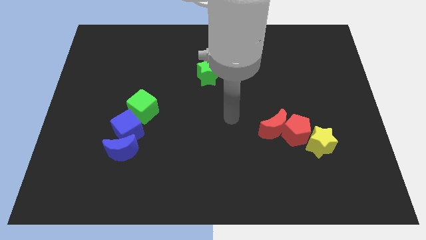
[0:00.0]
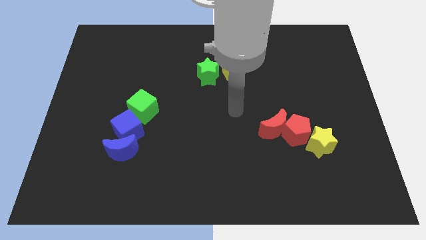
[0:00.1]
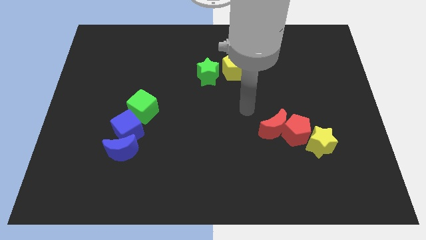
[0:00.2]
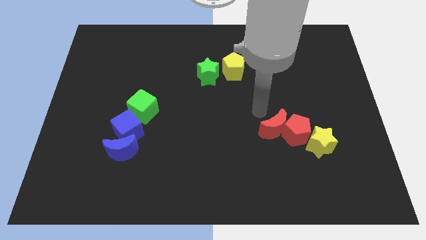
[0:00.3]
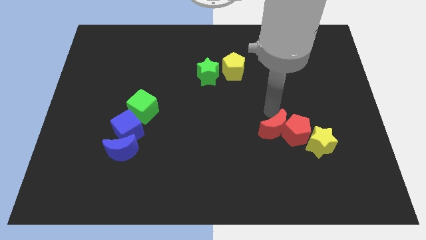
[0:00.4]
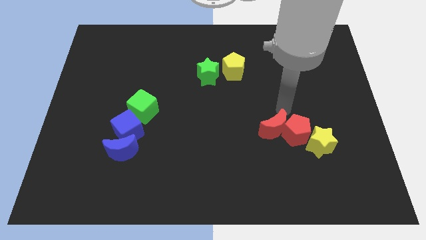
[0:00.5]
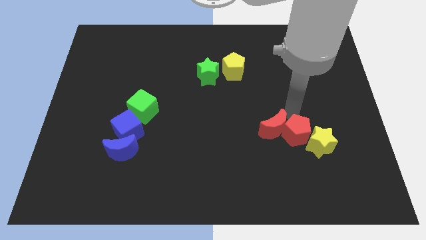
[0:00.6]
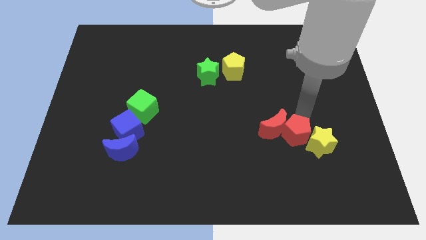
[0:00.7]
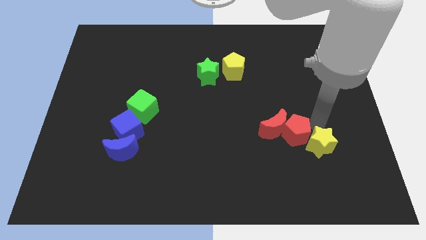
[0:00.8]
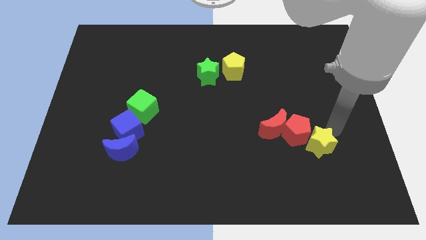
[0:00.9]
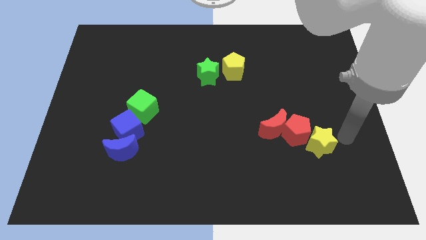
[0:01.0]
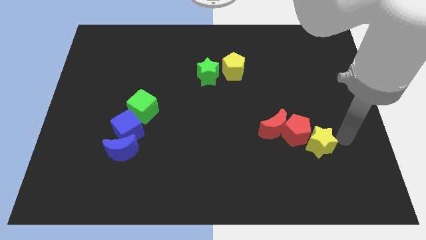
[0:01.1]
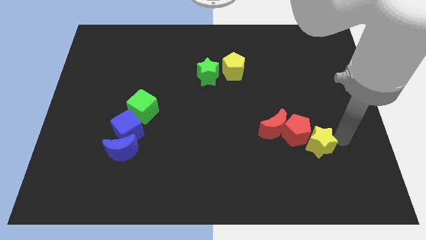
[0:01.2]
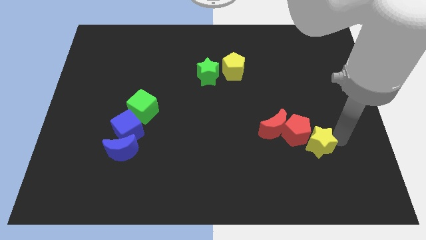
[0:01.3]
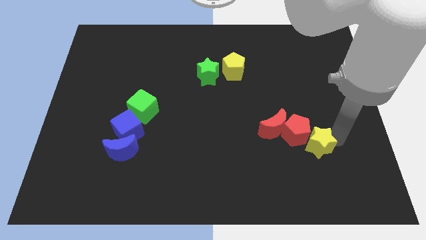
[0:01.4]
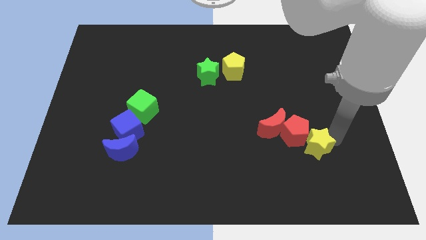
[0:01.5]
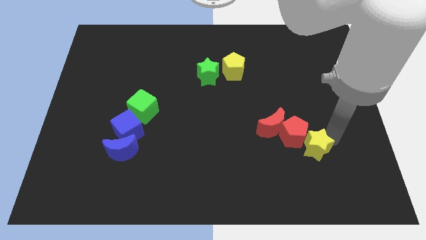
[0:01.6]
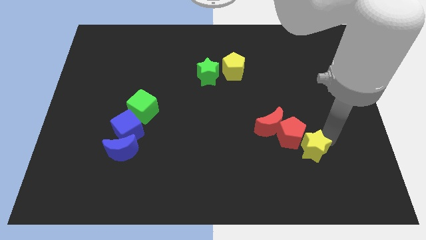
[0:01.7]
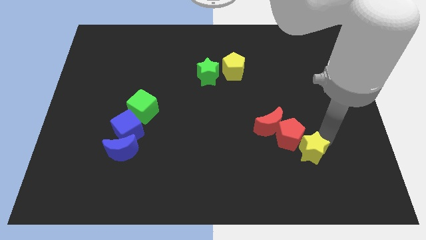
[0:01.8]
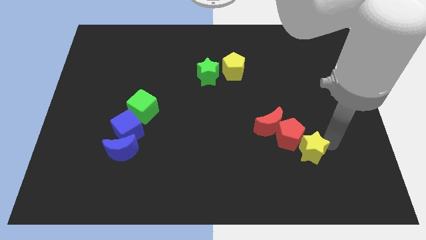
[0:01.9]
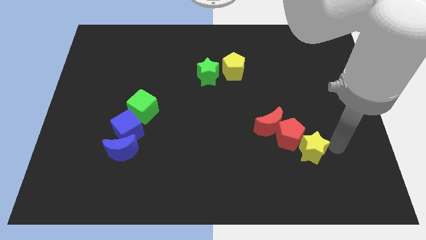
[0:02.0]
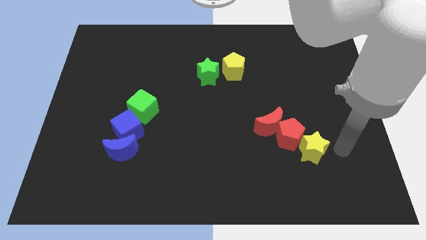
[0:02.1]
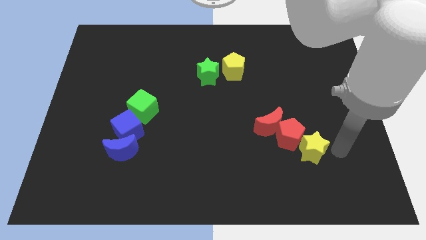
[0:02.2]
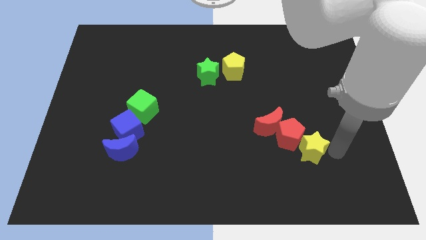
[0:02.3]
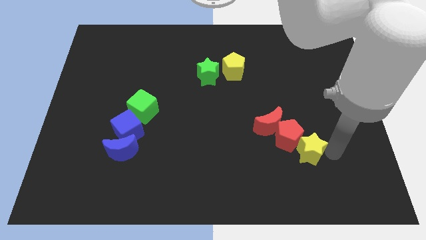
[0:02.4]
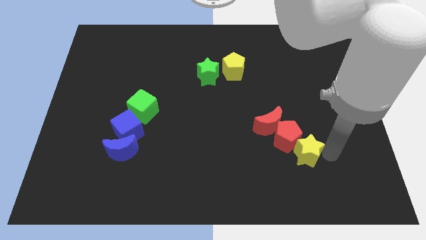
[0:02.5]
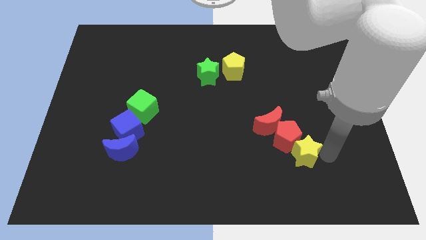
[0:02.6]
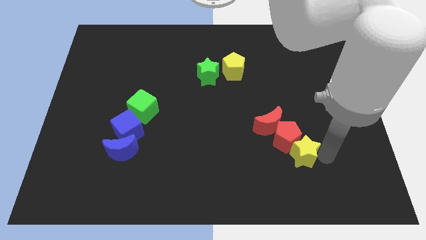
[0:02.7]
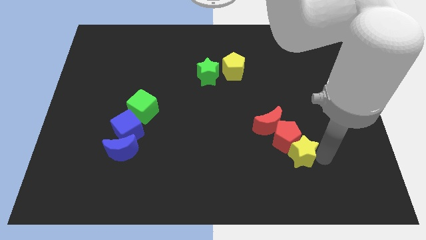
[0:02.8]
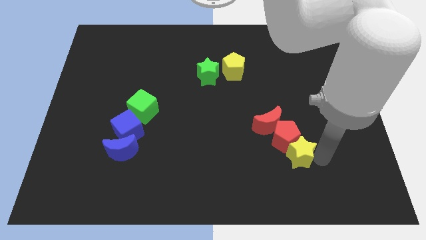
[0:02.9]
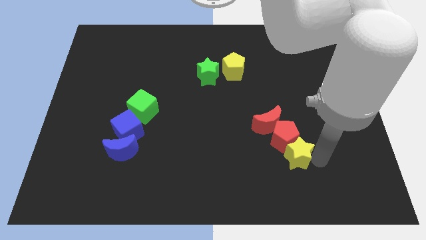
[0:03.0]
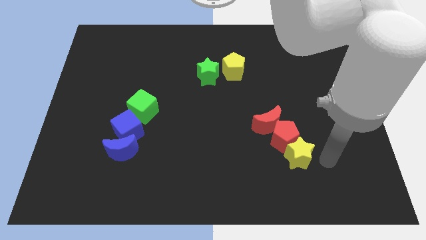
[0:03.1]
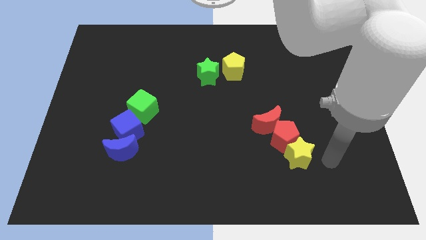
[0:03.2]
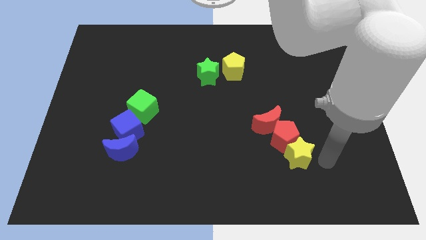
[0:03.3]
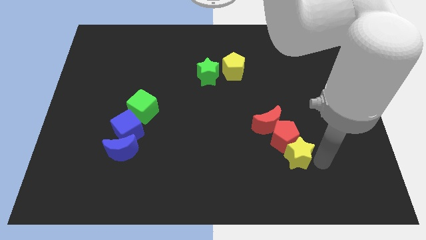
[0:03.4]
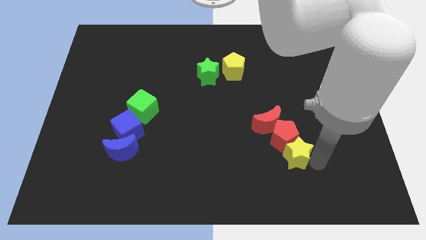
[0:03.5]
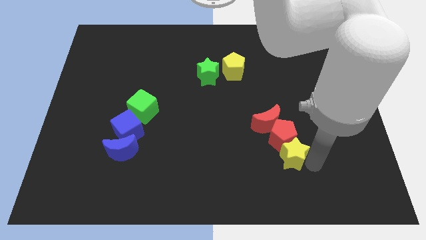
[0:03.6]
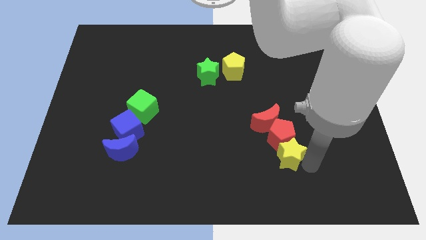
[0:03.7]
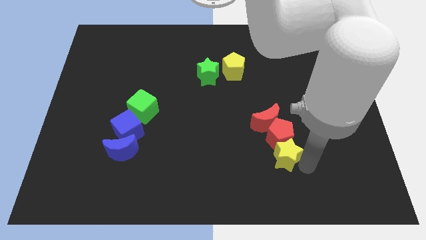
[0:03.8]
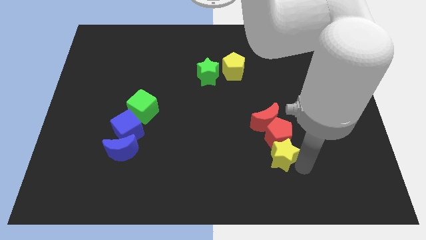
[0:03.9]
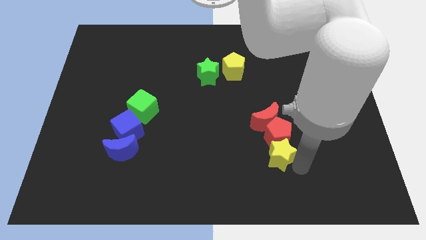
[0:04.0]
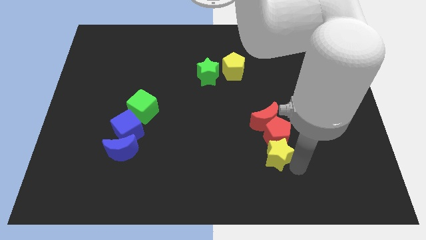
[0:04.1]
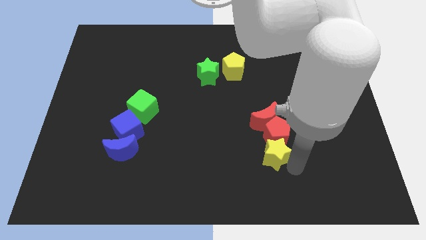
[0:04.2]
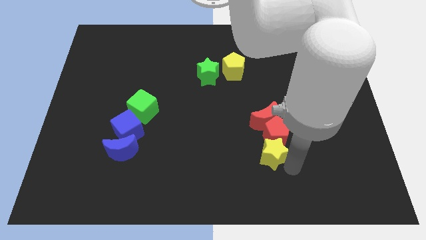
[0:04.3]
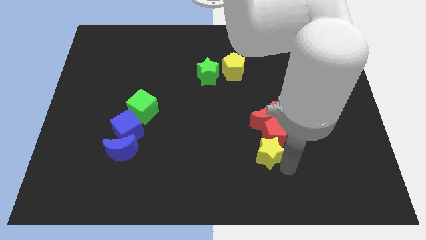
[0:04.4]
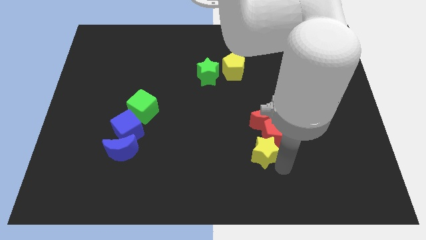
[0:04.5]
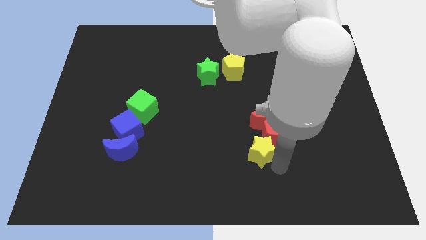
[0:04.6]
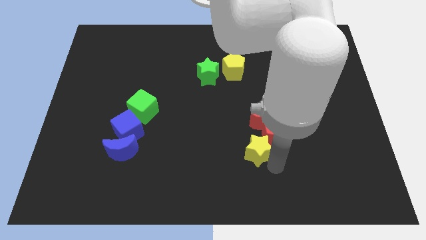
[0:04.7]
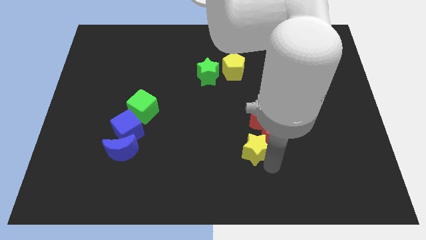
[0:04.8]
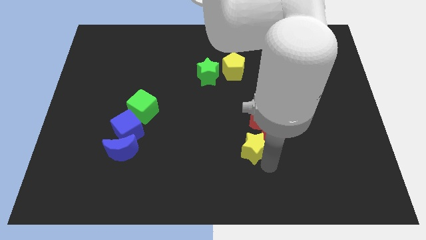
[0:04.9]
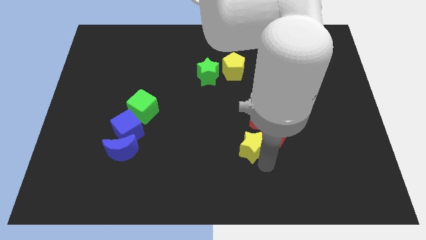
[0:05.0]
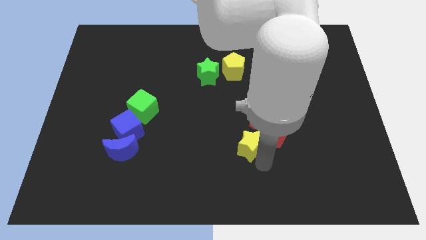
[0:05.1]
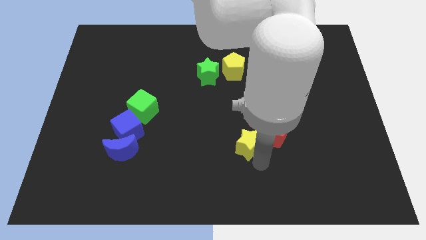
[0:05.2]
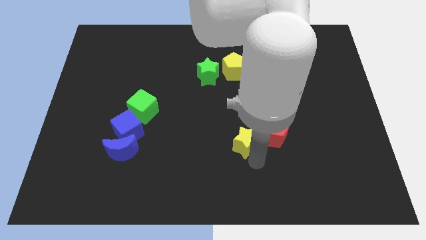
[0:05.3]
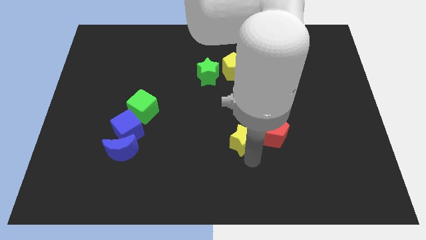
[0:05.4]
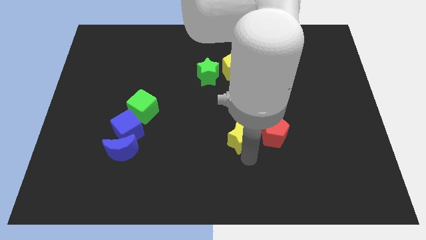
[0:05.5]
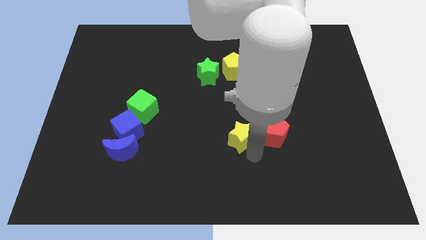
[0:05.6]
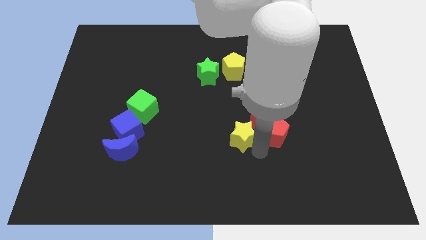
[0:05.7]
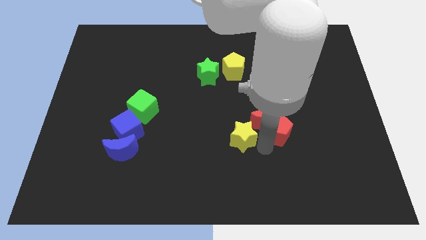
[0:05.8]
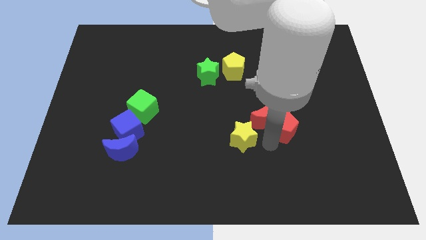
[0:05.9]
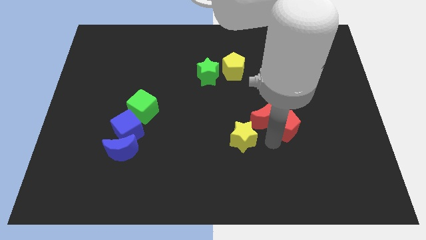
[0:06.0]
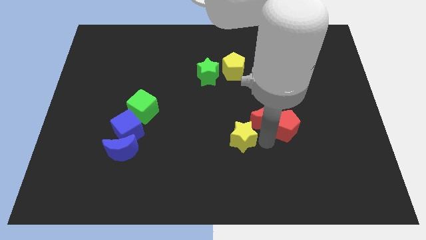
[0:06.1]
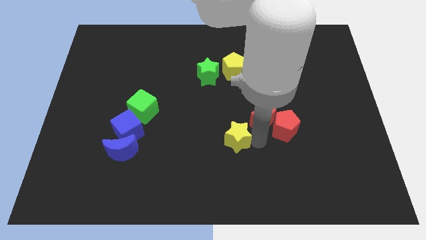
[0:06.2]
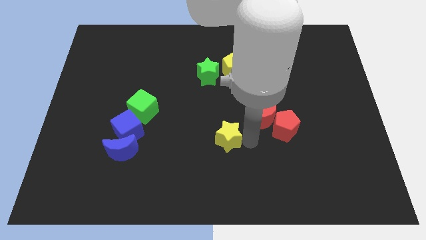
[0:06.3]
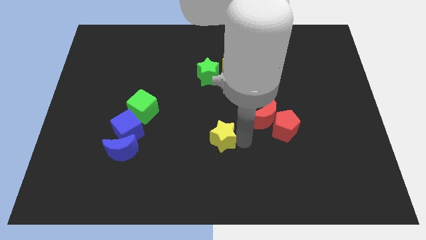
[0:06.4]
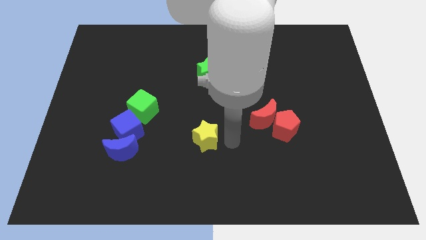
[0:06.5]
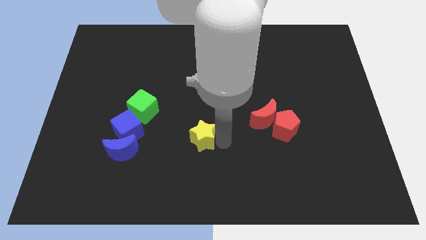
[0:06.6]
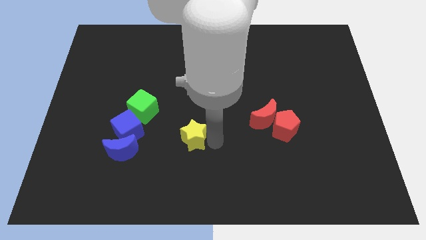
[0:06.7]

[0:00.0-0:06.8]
push the yellow star to the right of the blue cube

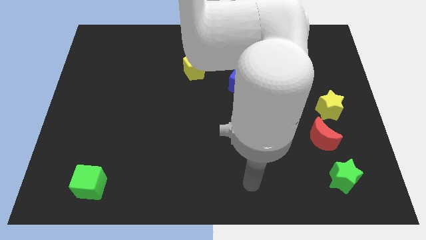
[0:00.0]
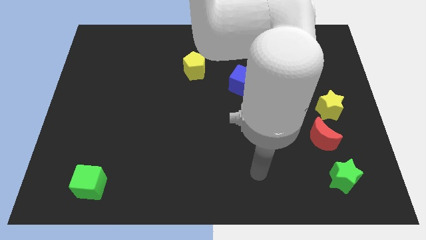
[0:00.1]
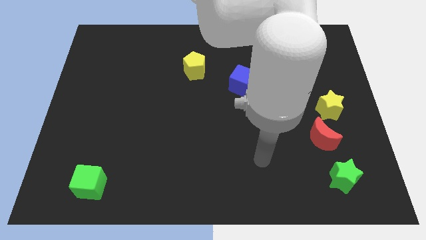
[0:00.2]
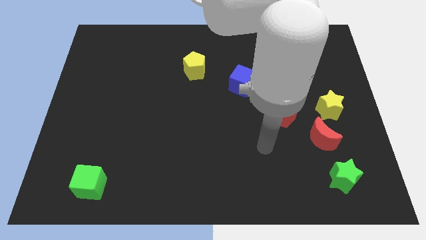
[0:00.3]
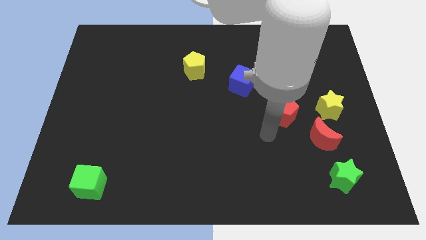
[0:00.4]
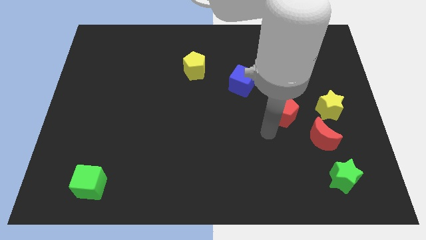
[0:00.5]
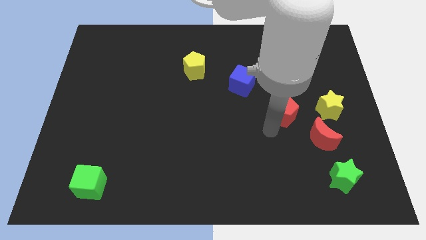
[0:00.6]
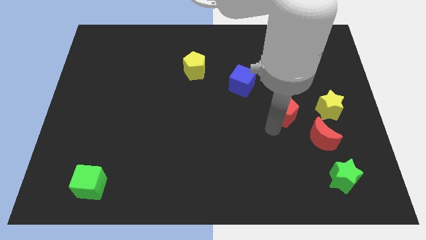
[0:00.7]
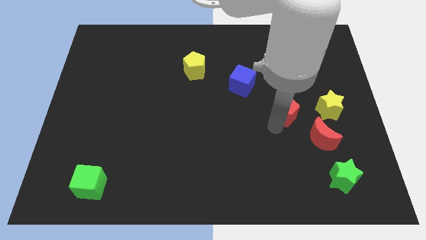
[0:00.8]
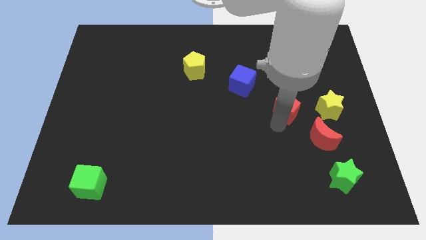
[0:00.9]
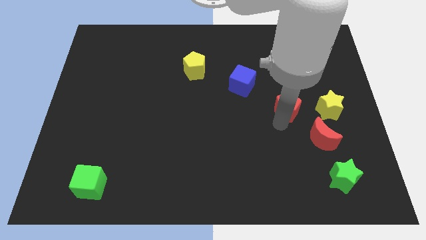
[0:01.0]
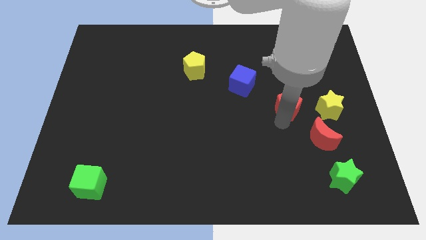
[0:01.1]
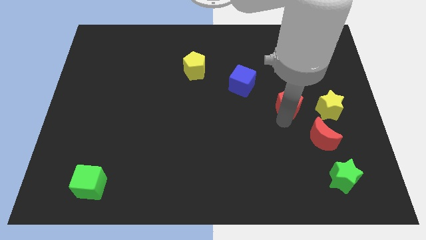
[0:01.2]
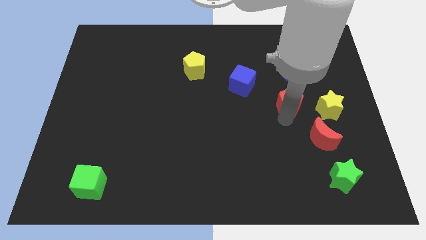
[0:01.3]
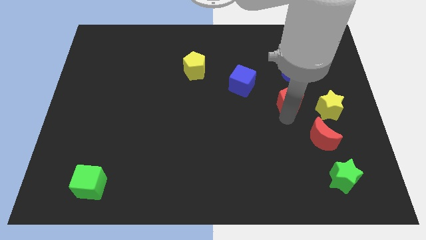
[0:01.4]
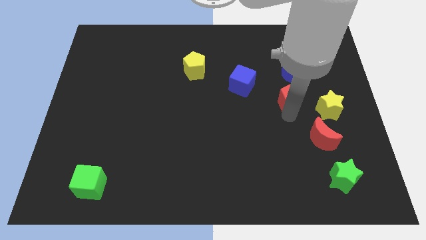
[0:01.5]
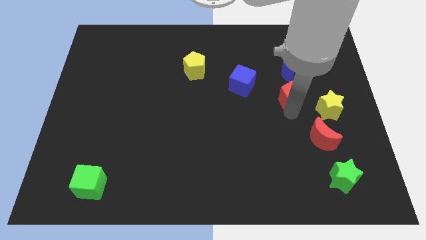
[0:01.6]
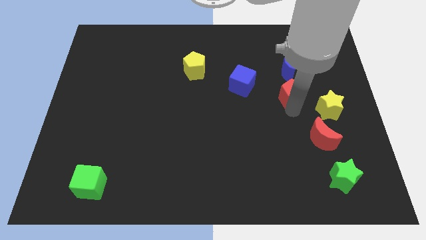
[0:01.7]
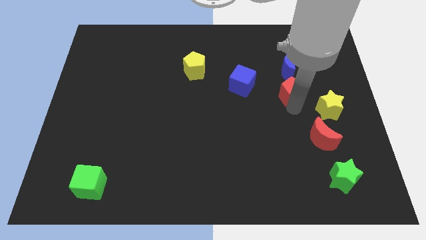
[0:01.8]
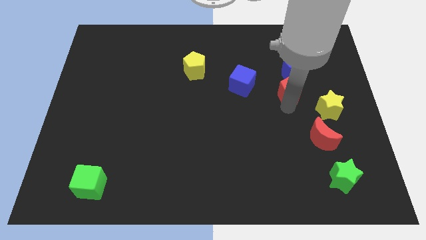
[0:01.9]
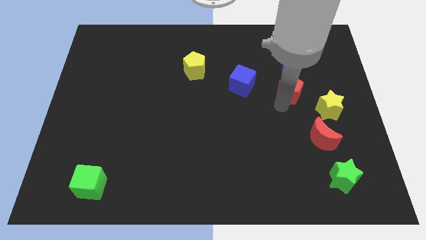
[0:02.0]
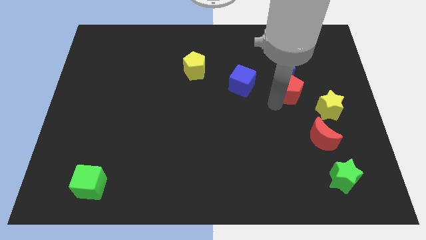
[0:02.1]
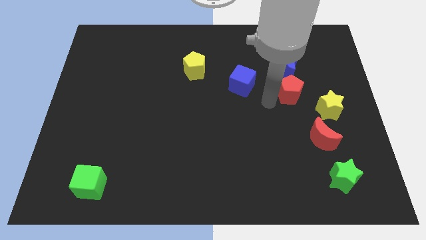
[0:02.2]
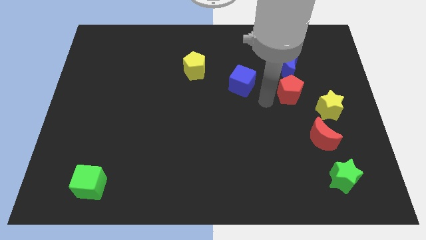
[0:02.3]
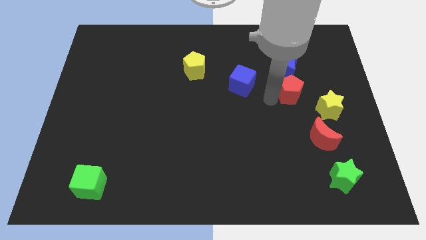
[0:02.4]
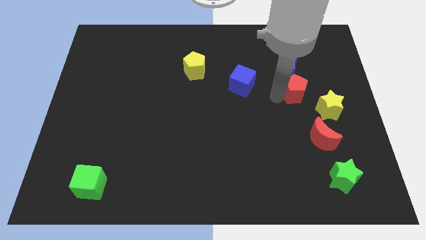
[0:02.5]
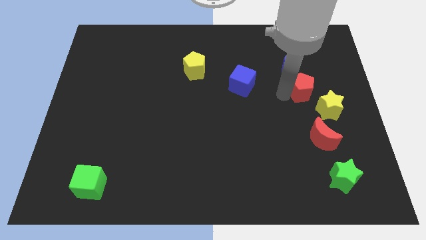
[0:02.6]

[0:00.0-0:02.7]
slide the red pentagon to the bottom right side of the blue moon
